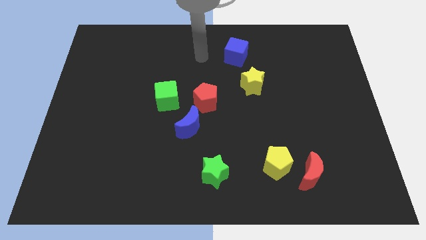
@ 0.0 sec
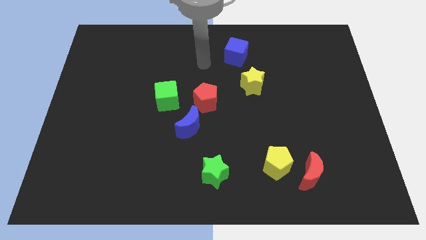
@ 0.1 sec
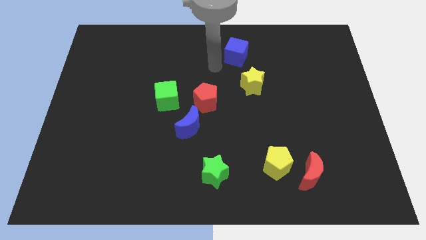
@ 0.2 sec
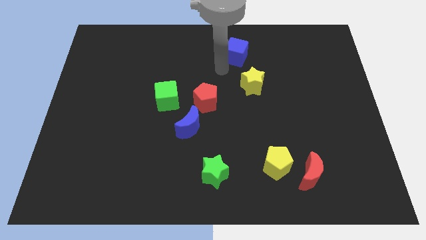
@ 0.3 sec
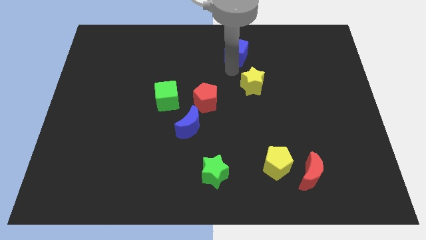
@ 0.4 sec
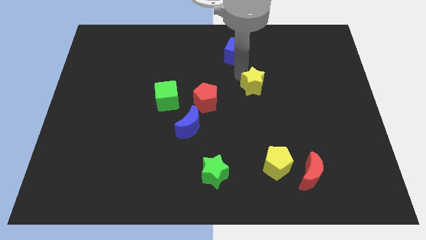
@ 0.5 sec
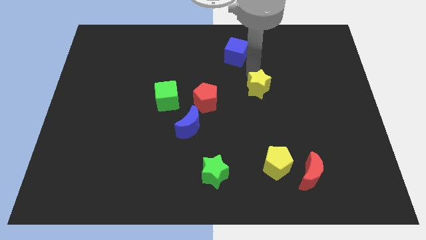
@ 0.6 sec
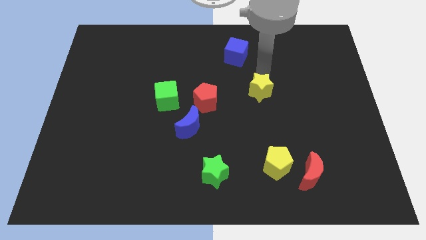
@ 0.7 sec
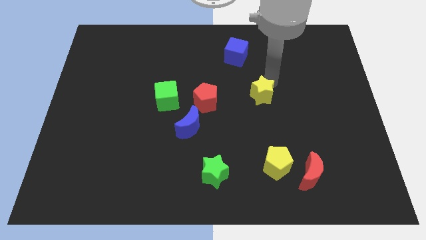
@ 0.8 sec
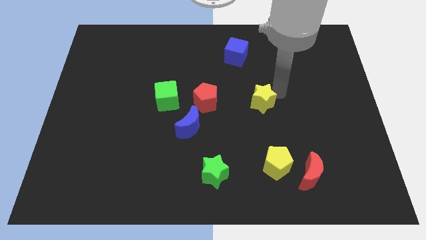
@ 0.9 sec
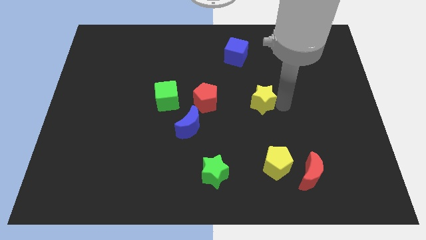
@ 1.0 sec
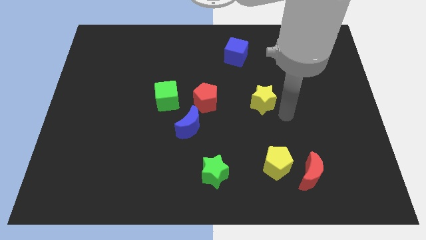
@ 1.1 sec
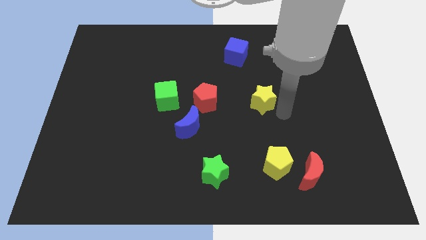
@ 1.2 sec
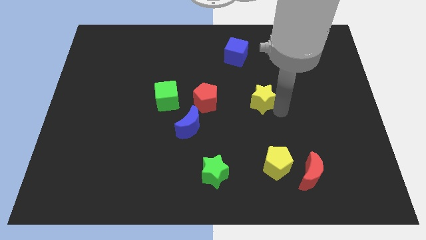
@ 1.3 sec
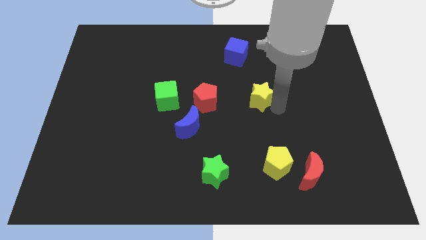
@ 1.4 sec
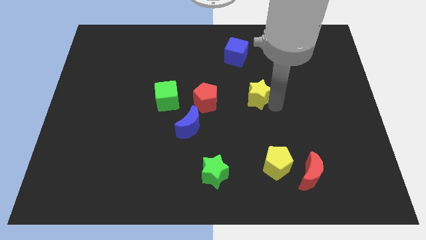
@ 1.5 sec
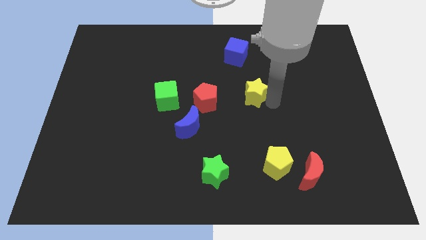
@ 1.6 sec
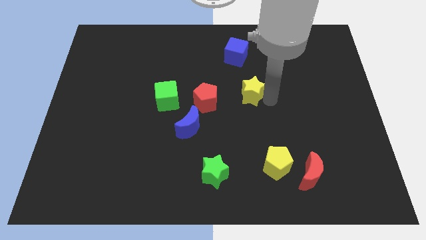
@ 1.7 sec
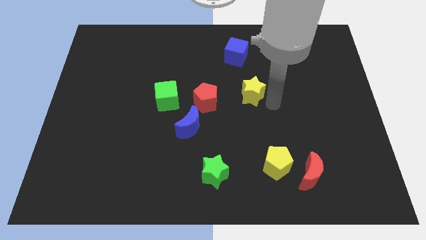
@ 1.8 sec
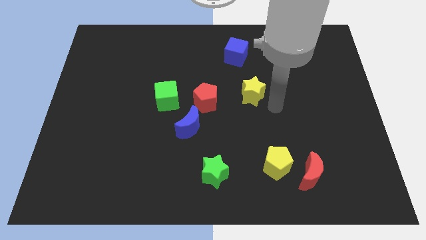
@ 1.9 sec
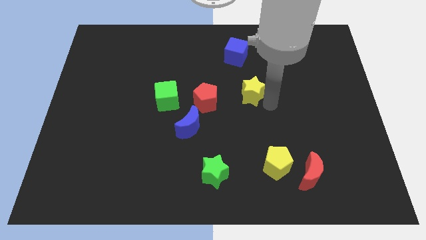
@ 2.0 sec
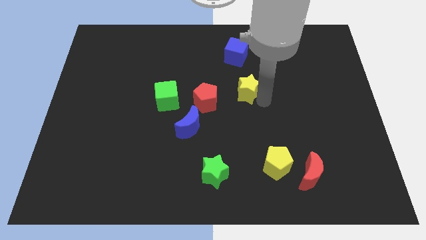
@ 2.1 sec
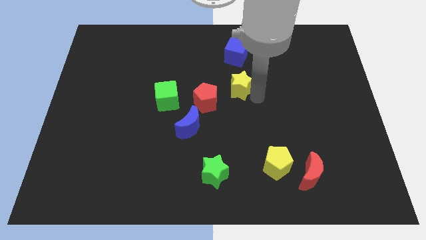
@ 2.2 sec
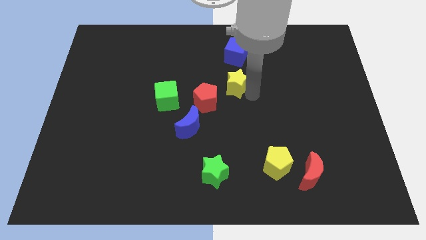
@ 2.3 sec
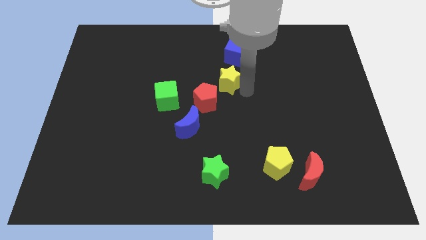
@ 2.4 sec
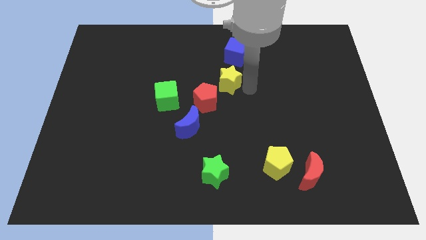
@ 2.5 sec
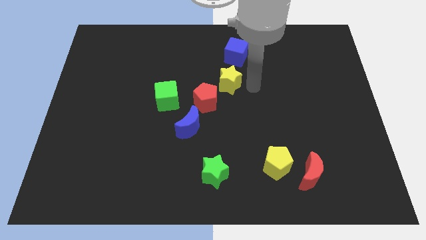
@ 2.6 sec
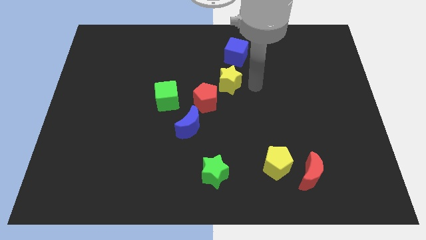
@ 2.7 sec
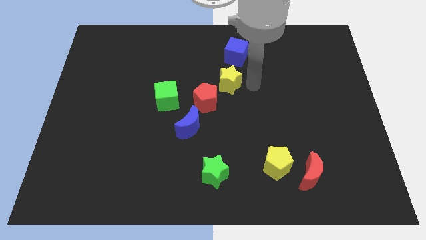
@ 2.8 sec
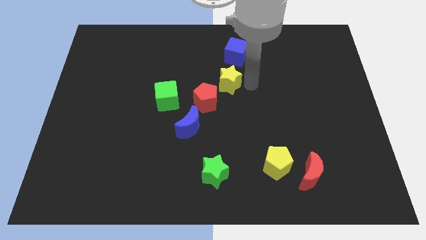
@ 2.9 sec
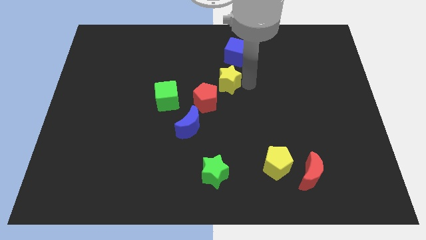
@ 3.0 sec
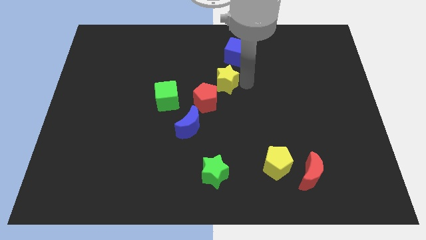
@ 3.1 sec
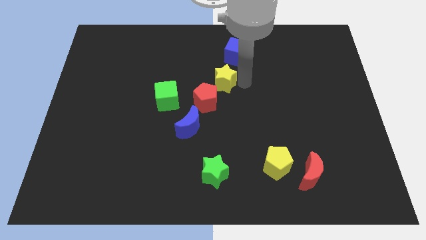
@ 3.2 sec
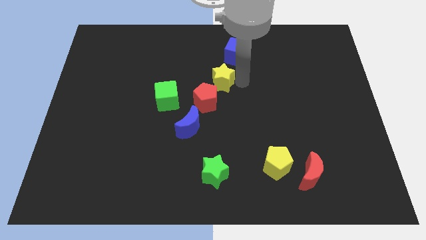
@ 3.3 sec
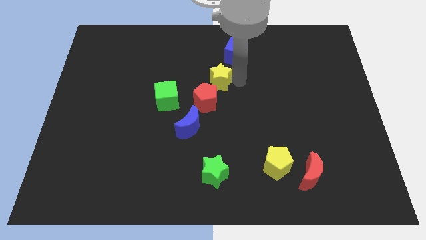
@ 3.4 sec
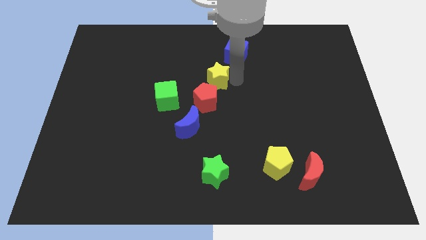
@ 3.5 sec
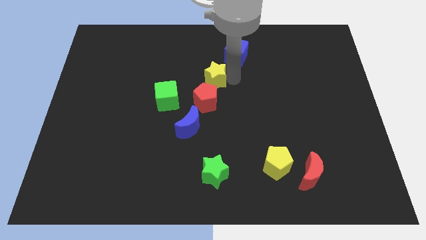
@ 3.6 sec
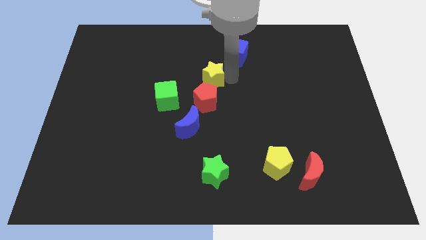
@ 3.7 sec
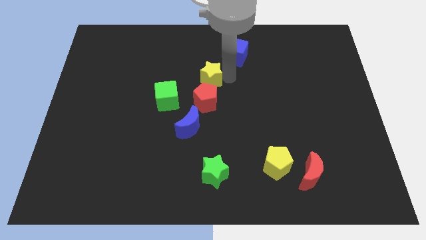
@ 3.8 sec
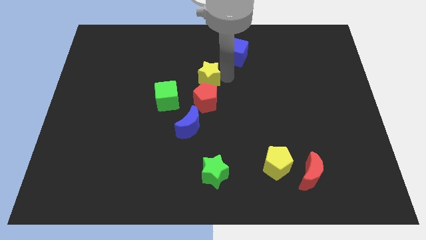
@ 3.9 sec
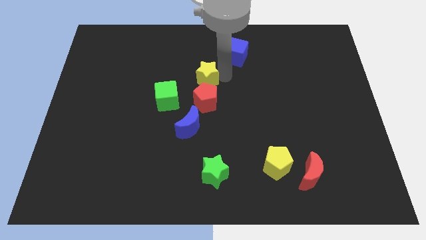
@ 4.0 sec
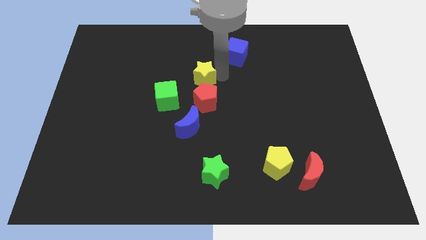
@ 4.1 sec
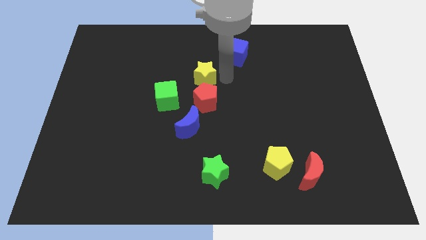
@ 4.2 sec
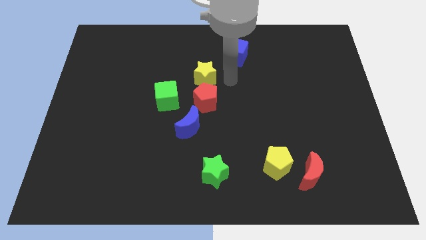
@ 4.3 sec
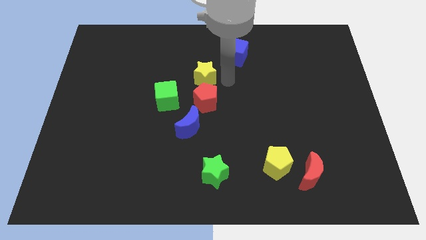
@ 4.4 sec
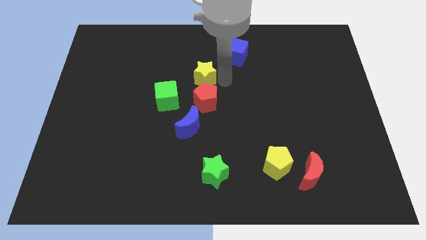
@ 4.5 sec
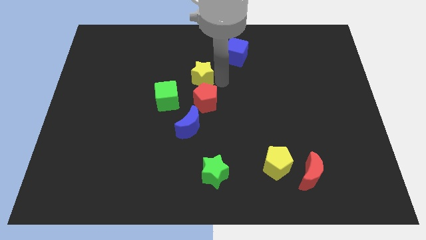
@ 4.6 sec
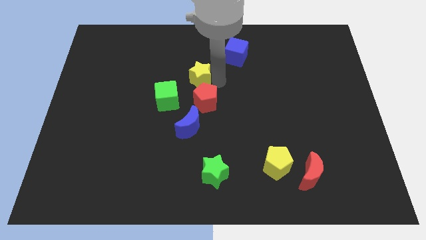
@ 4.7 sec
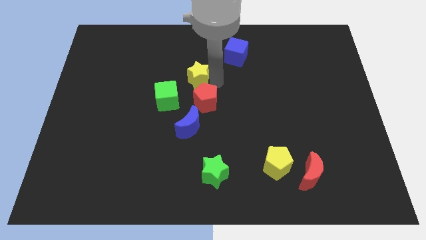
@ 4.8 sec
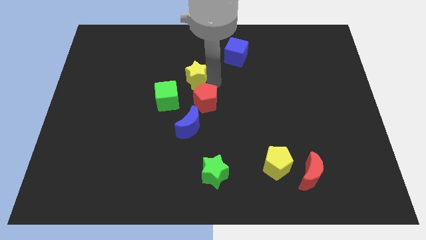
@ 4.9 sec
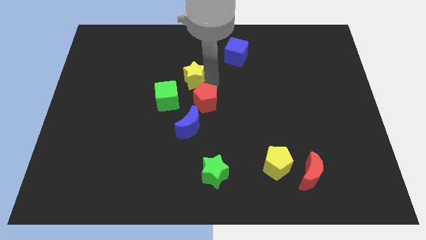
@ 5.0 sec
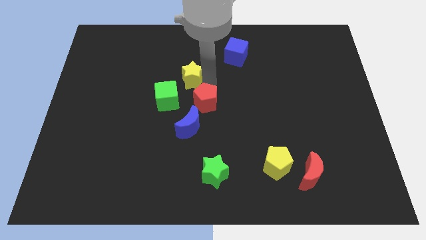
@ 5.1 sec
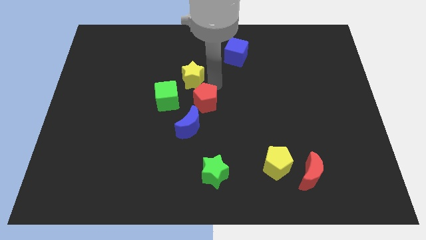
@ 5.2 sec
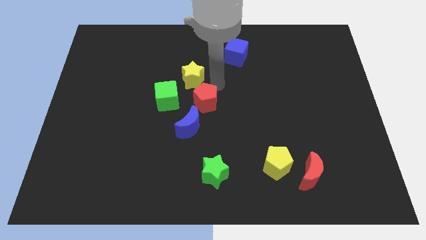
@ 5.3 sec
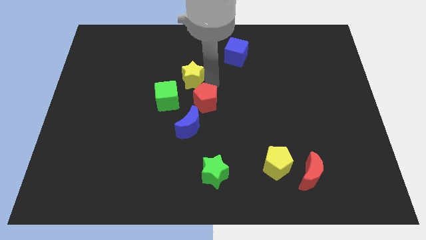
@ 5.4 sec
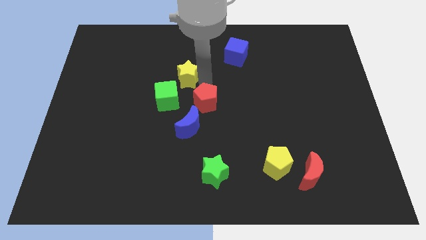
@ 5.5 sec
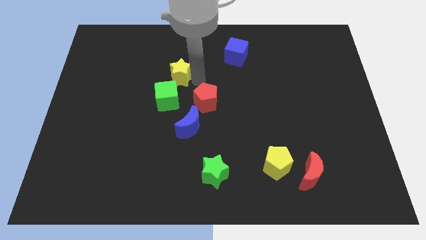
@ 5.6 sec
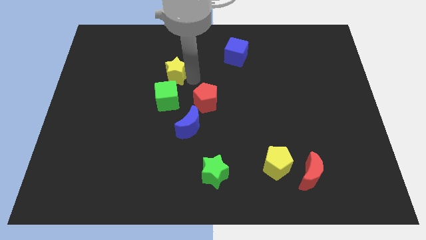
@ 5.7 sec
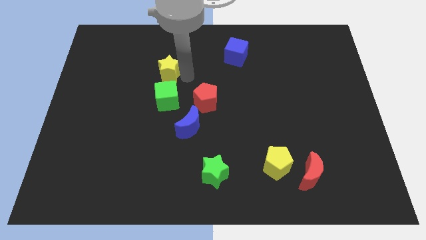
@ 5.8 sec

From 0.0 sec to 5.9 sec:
slide the yellow star to the left

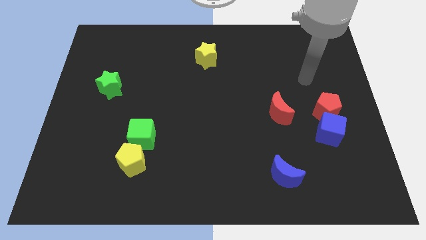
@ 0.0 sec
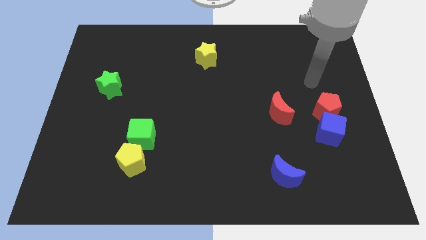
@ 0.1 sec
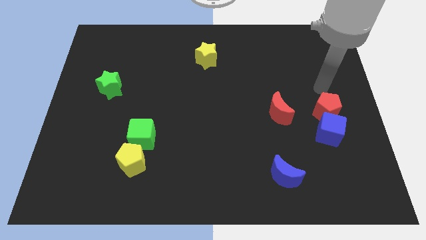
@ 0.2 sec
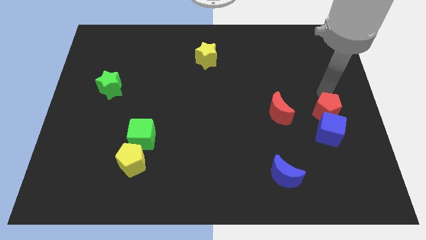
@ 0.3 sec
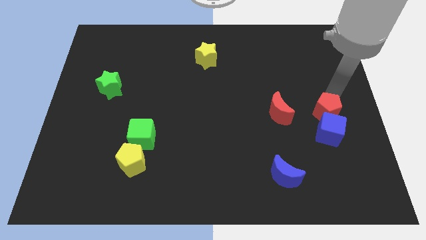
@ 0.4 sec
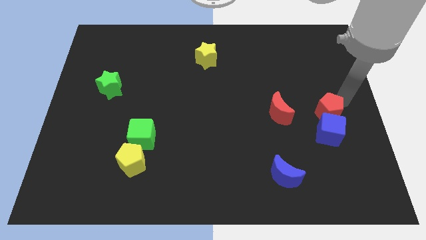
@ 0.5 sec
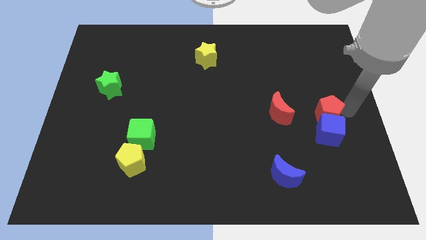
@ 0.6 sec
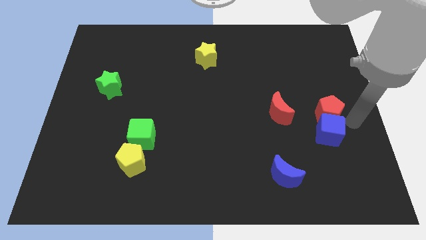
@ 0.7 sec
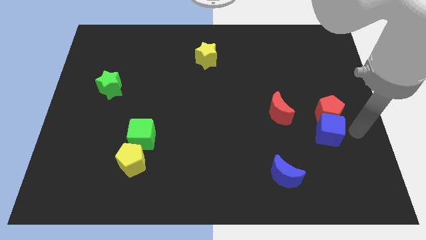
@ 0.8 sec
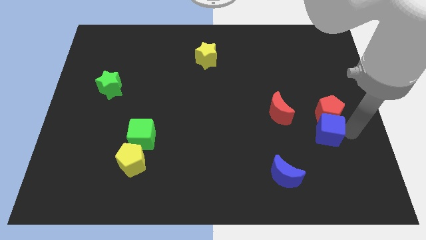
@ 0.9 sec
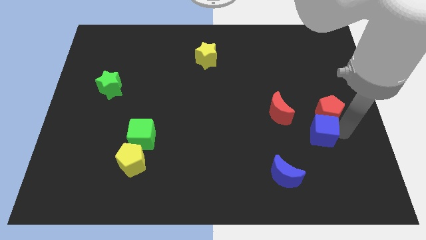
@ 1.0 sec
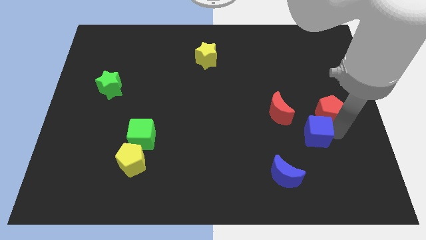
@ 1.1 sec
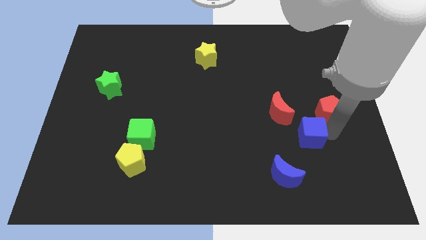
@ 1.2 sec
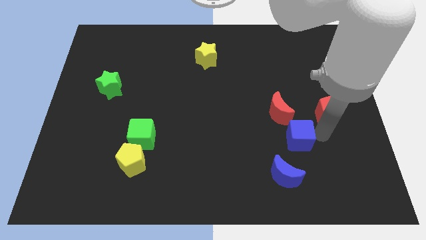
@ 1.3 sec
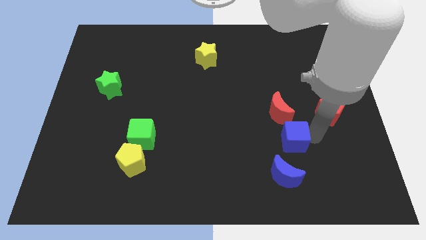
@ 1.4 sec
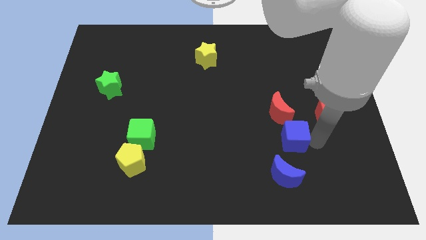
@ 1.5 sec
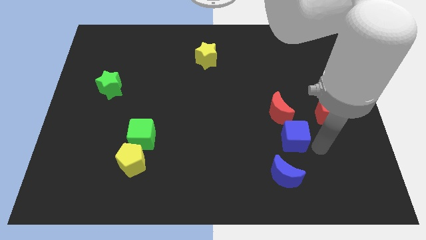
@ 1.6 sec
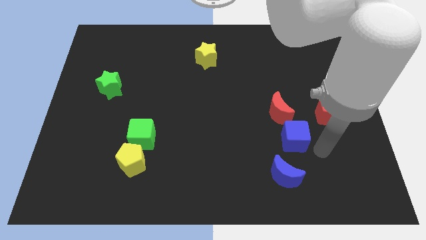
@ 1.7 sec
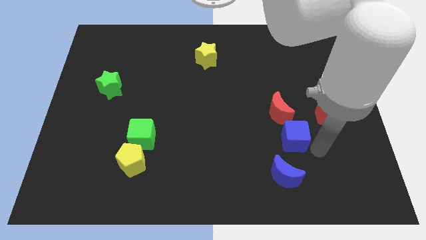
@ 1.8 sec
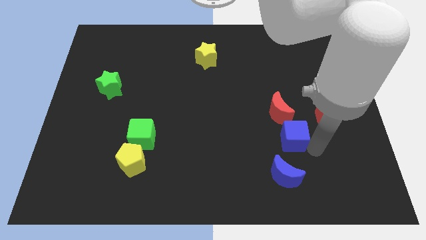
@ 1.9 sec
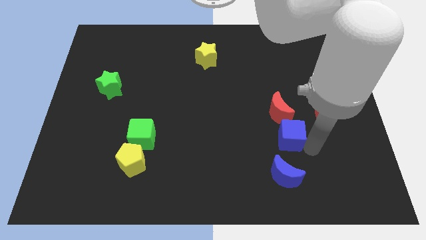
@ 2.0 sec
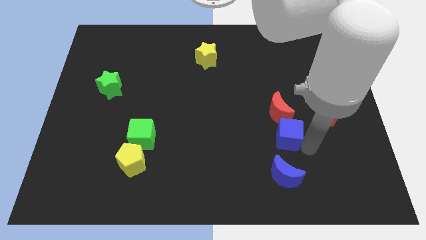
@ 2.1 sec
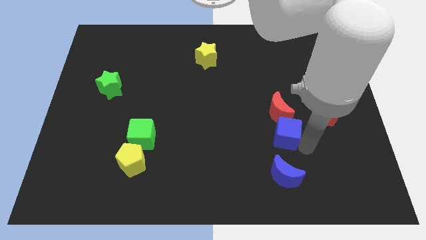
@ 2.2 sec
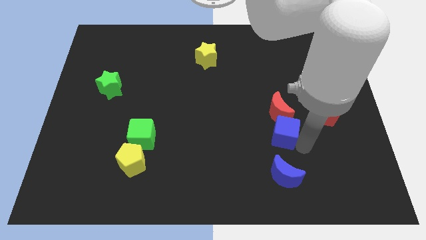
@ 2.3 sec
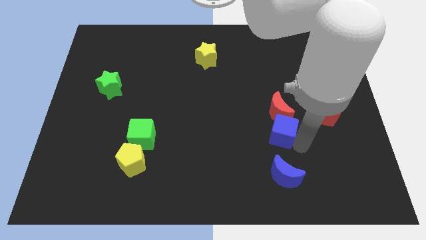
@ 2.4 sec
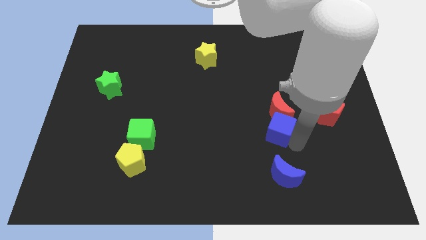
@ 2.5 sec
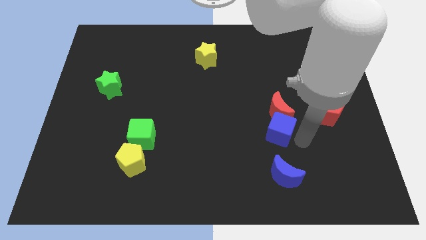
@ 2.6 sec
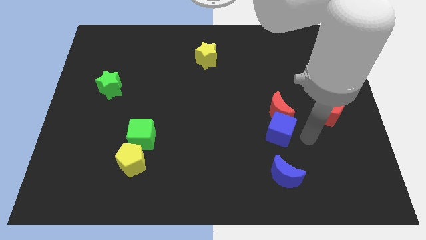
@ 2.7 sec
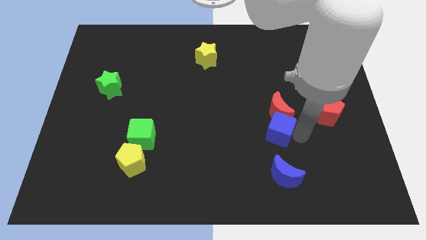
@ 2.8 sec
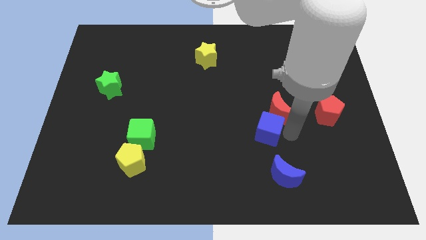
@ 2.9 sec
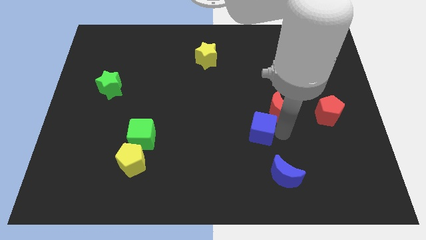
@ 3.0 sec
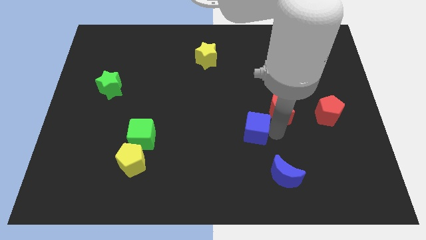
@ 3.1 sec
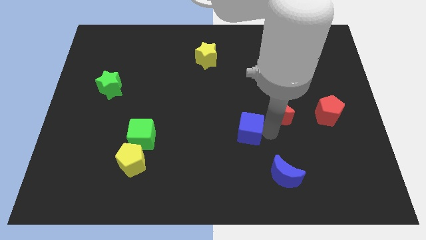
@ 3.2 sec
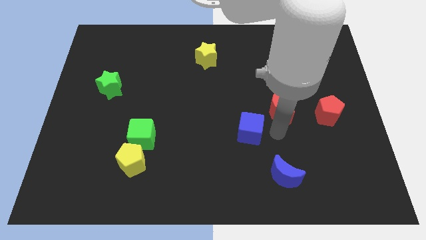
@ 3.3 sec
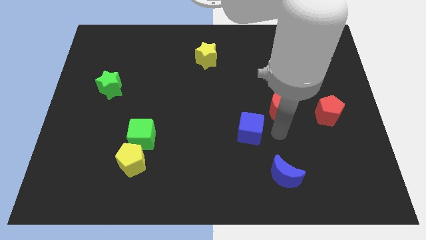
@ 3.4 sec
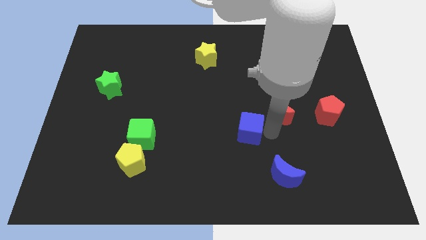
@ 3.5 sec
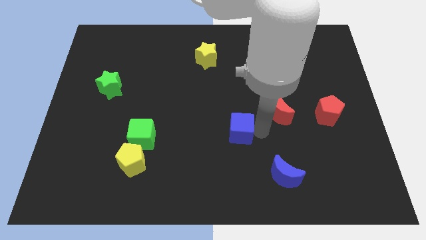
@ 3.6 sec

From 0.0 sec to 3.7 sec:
slide the blue cube to the left
